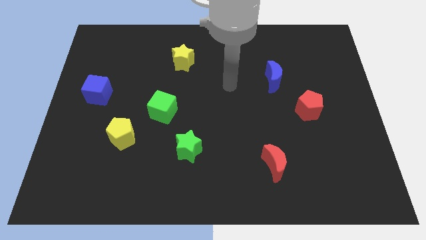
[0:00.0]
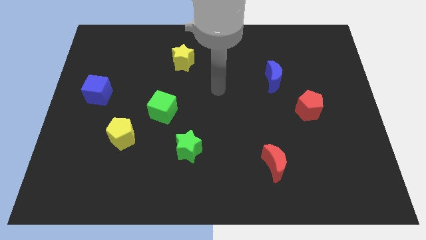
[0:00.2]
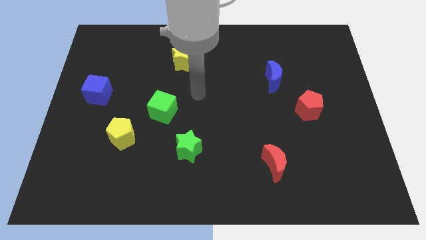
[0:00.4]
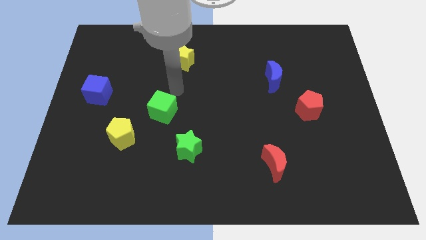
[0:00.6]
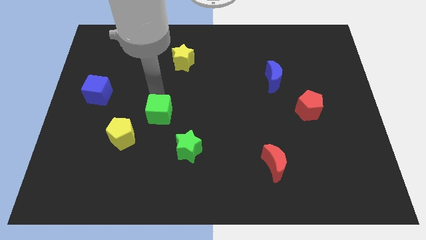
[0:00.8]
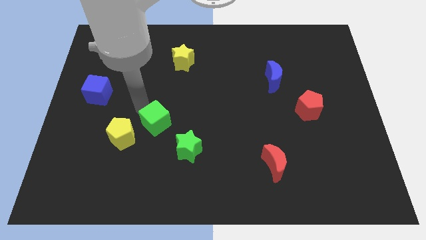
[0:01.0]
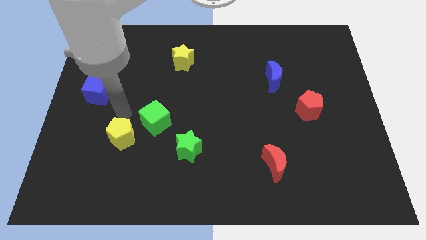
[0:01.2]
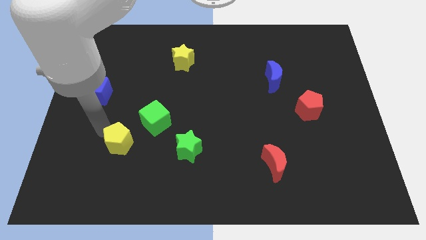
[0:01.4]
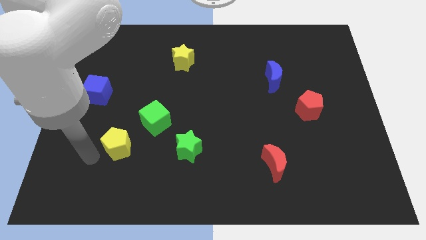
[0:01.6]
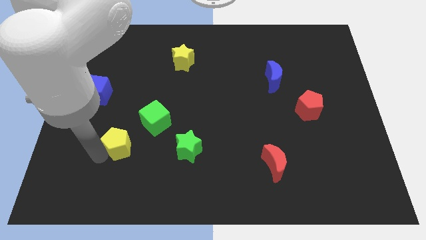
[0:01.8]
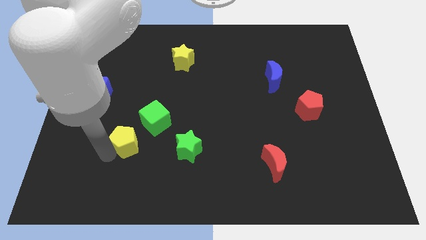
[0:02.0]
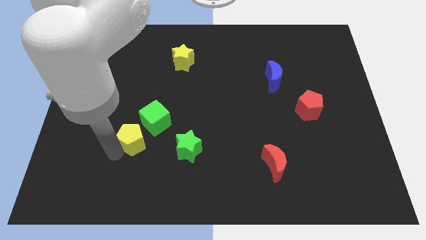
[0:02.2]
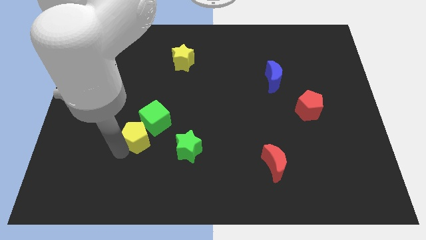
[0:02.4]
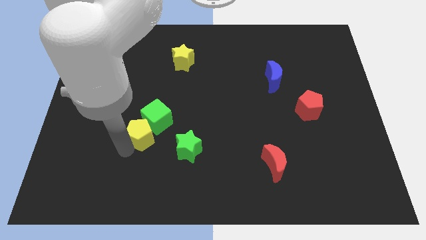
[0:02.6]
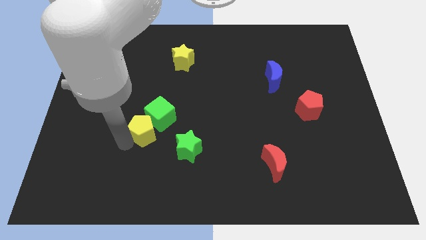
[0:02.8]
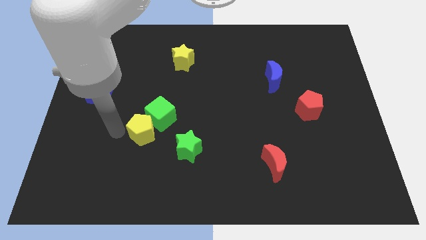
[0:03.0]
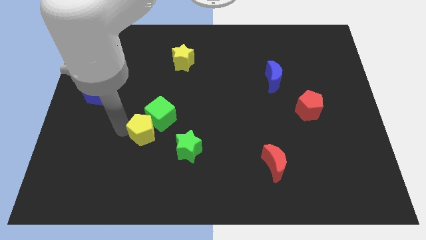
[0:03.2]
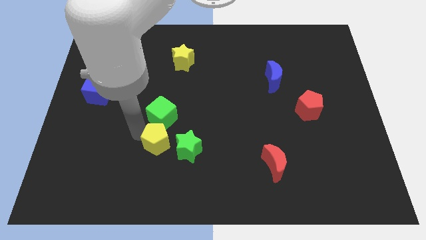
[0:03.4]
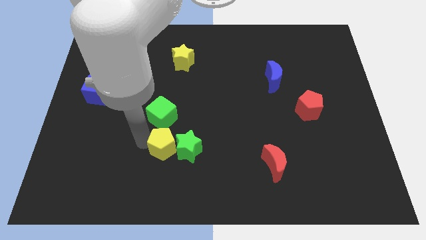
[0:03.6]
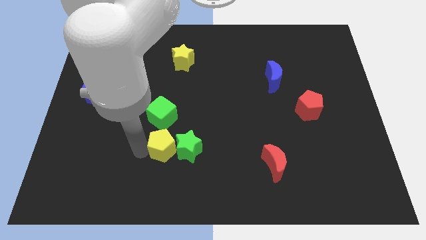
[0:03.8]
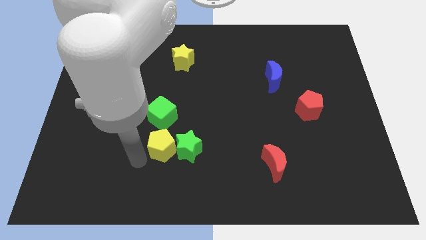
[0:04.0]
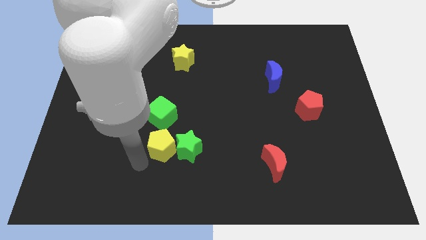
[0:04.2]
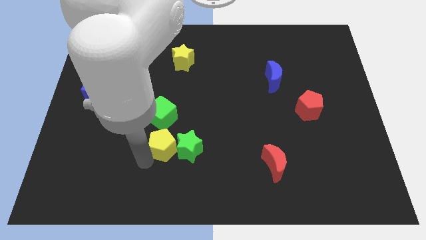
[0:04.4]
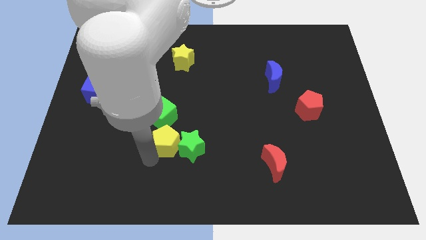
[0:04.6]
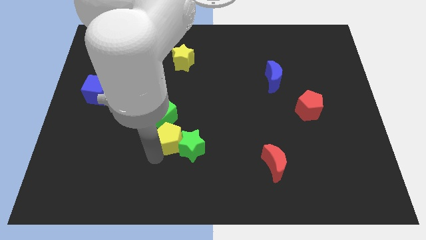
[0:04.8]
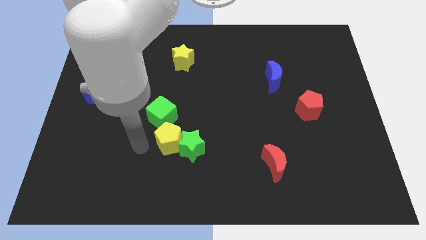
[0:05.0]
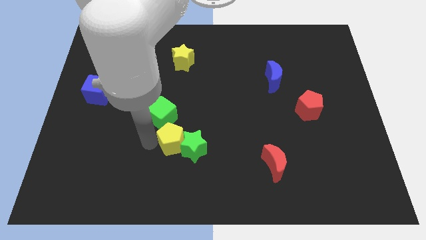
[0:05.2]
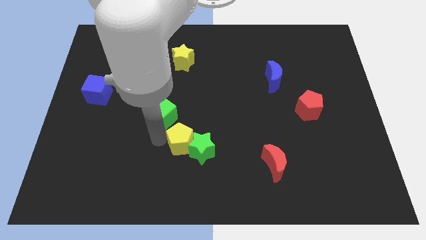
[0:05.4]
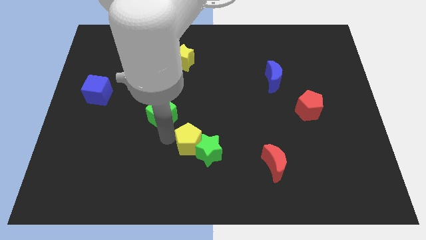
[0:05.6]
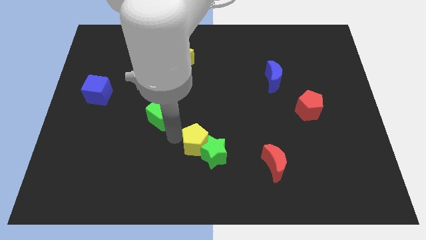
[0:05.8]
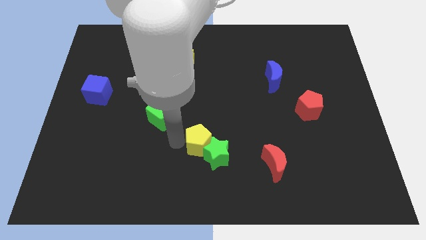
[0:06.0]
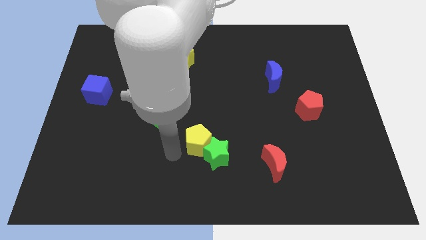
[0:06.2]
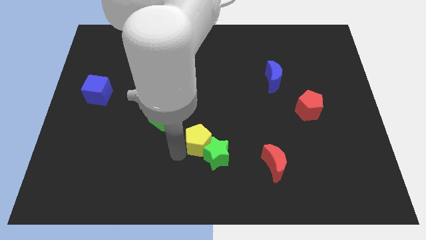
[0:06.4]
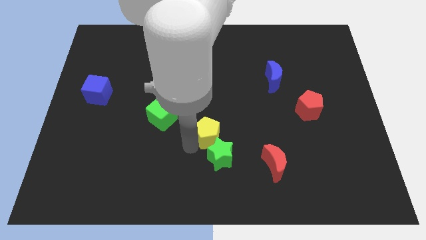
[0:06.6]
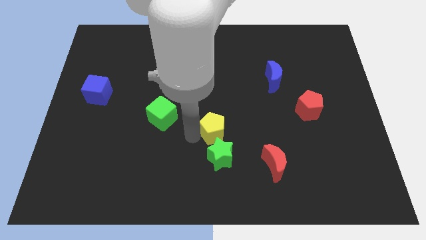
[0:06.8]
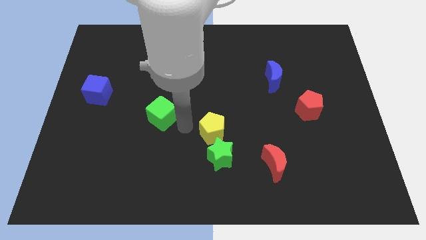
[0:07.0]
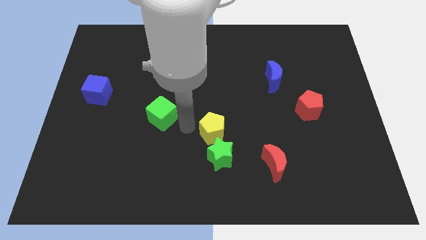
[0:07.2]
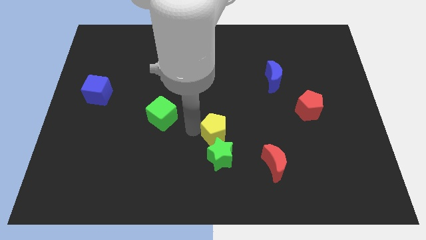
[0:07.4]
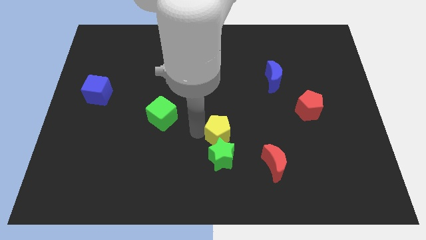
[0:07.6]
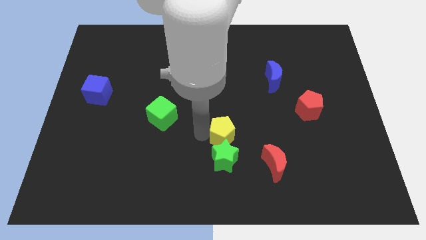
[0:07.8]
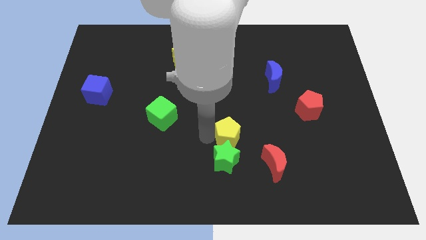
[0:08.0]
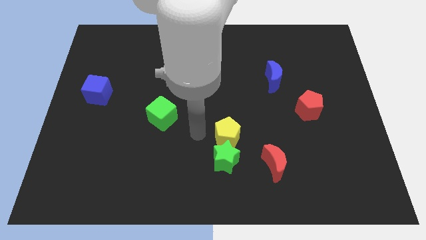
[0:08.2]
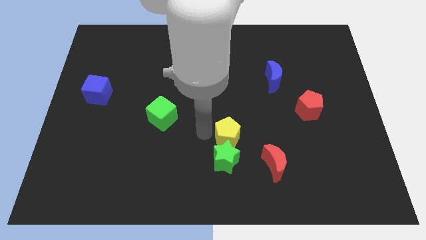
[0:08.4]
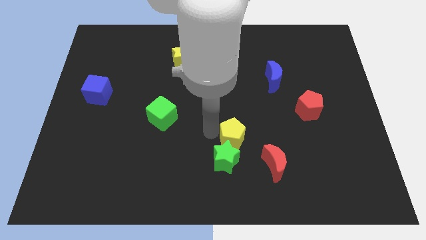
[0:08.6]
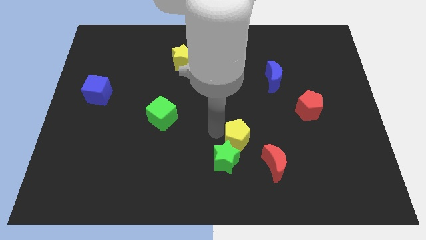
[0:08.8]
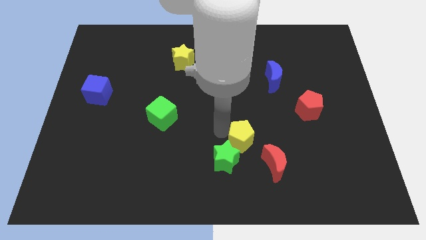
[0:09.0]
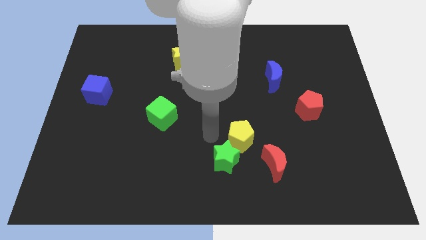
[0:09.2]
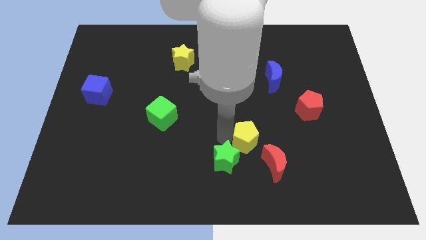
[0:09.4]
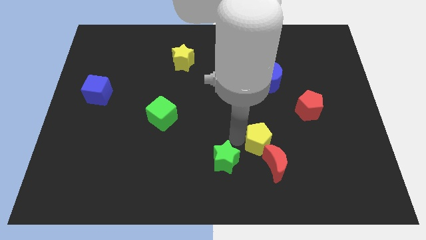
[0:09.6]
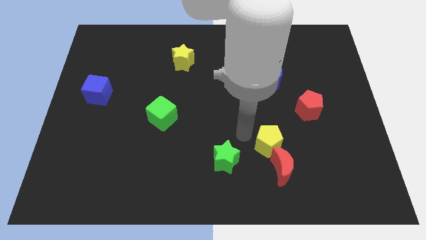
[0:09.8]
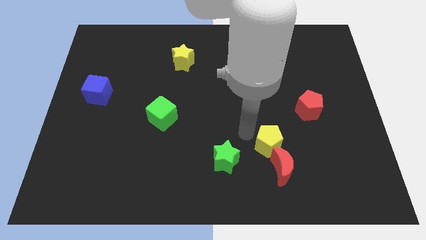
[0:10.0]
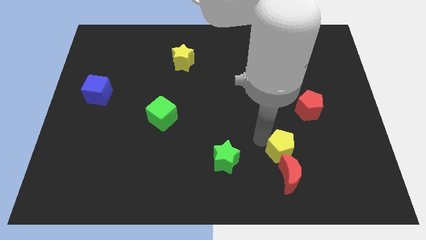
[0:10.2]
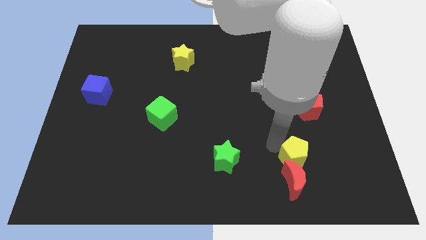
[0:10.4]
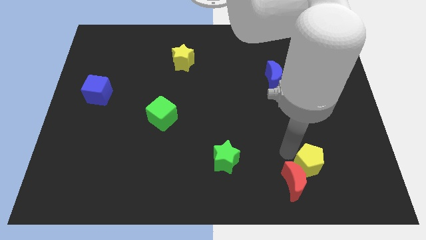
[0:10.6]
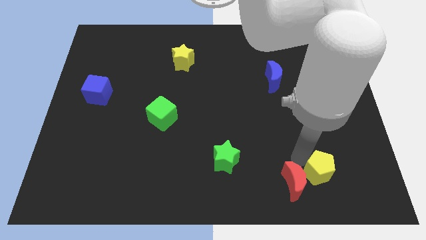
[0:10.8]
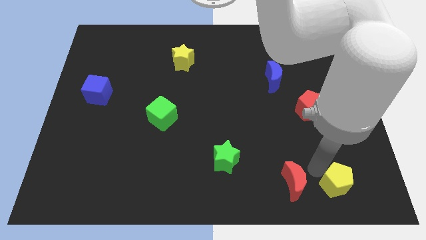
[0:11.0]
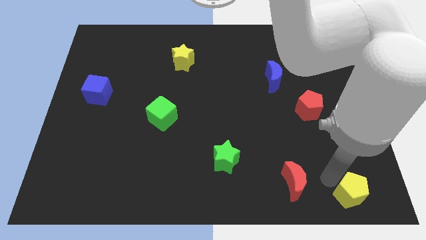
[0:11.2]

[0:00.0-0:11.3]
push the yellow pentagon to the bottom right corner

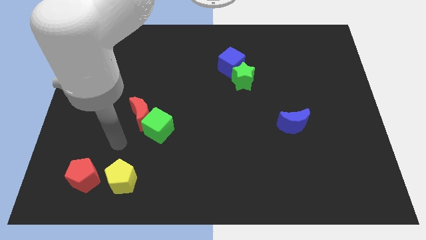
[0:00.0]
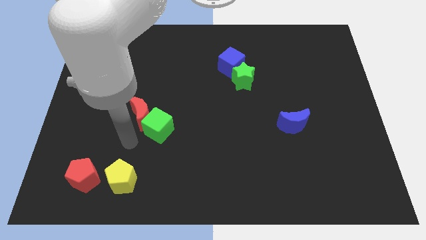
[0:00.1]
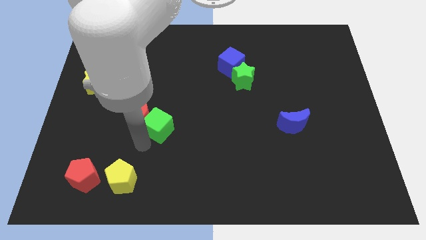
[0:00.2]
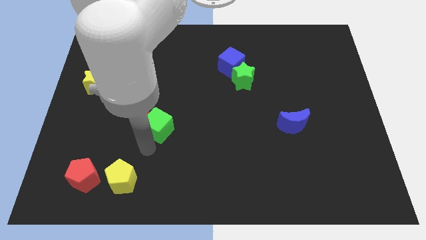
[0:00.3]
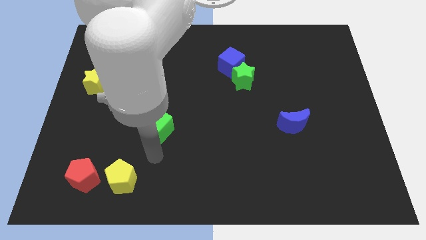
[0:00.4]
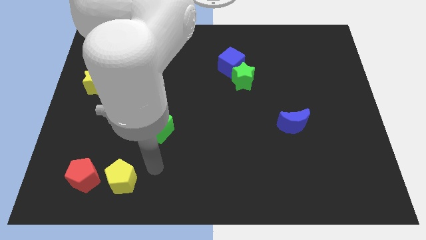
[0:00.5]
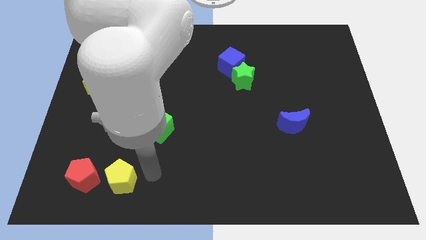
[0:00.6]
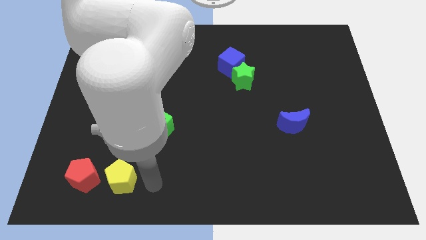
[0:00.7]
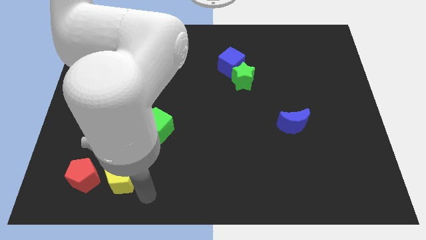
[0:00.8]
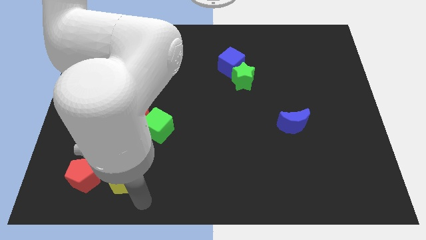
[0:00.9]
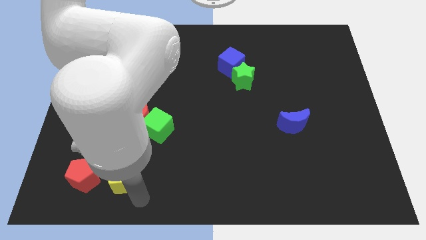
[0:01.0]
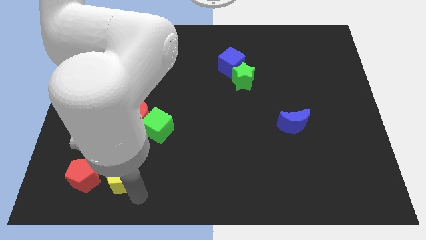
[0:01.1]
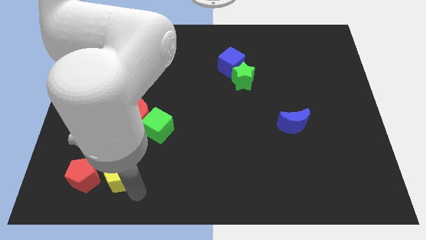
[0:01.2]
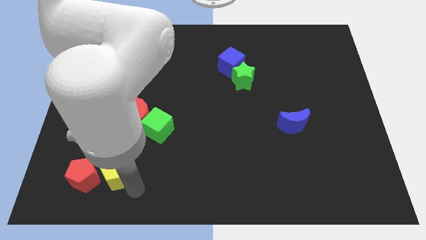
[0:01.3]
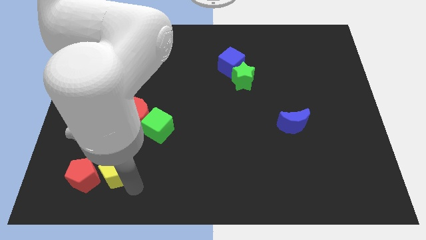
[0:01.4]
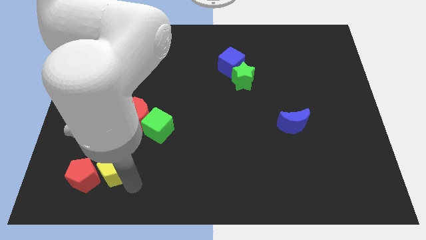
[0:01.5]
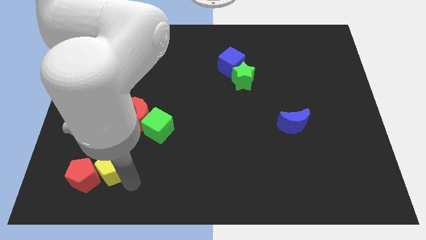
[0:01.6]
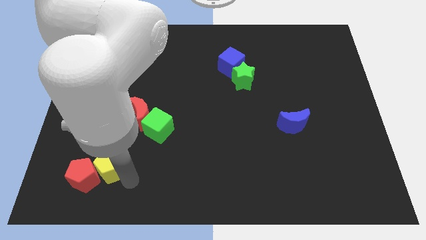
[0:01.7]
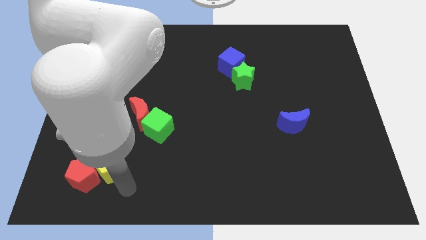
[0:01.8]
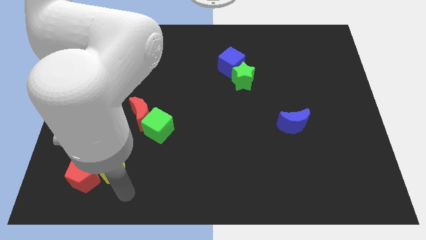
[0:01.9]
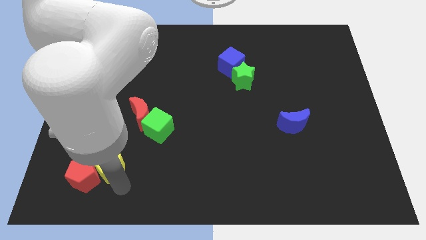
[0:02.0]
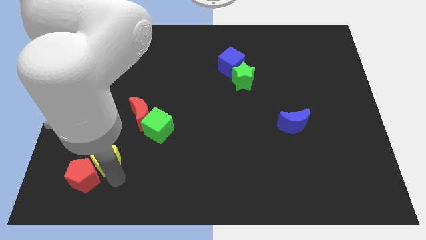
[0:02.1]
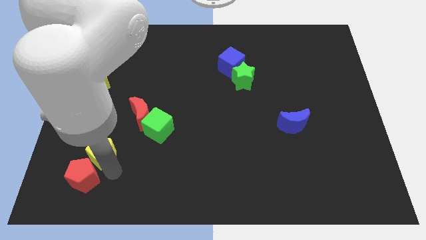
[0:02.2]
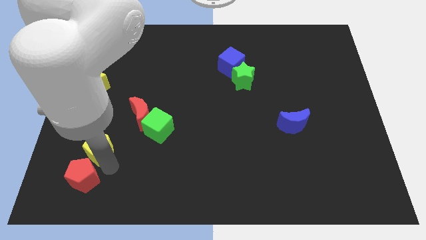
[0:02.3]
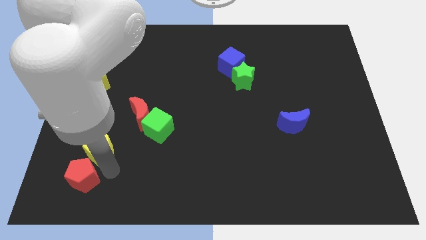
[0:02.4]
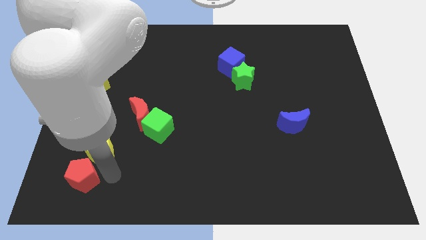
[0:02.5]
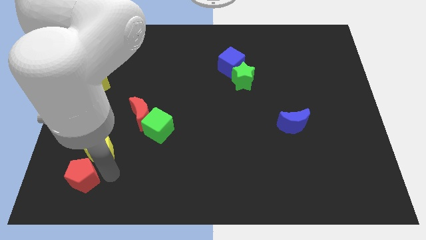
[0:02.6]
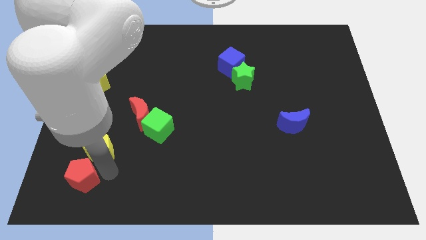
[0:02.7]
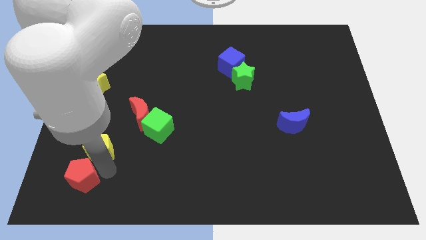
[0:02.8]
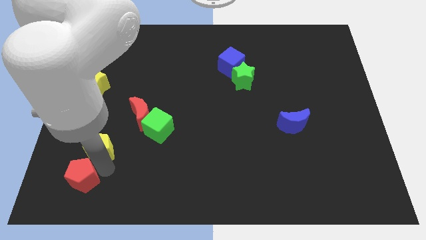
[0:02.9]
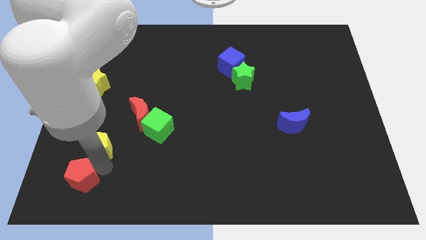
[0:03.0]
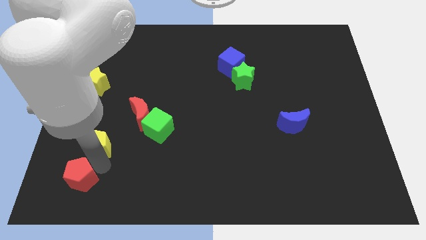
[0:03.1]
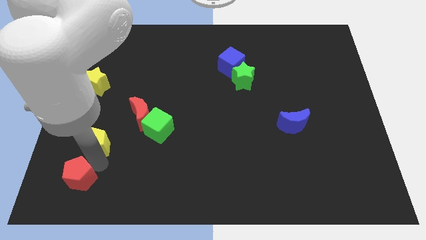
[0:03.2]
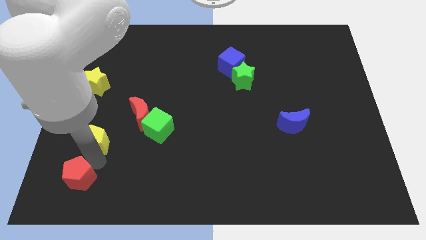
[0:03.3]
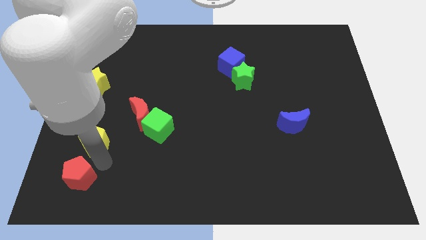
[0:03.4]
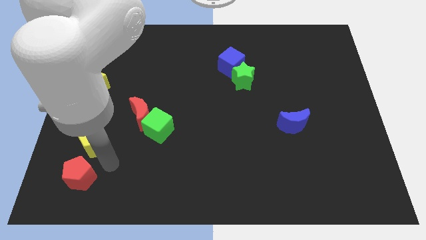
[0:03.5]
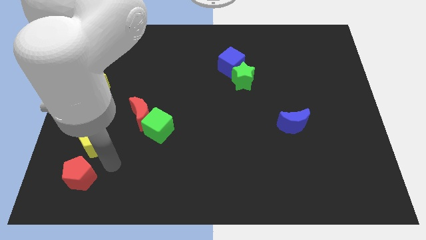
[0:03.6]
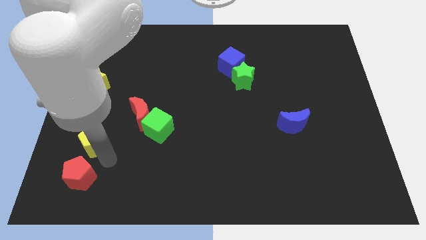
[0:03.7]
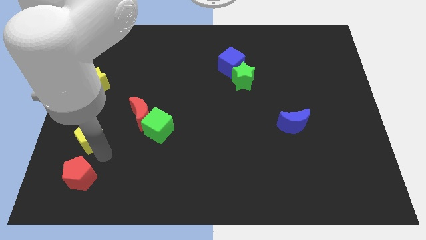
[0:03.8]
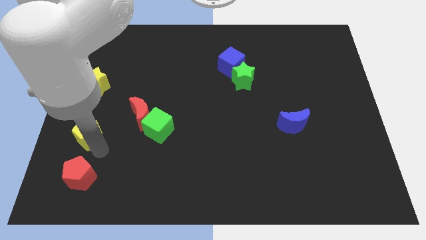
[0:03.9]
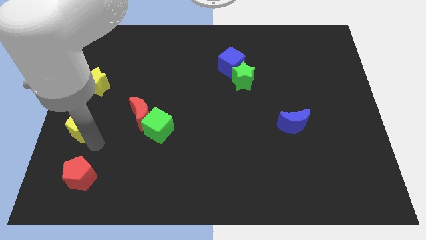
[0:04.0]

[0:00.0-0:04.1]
push the yellow pentagon to the left side
